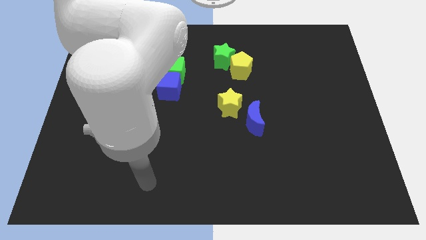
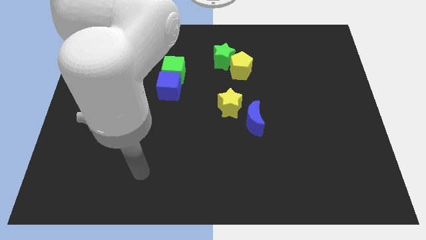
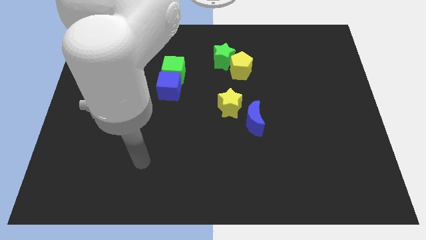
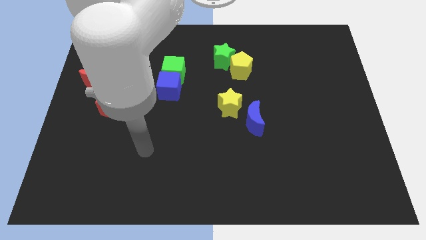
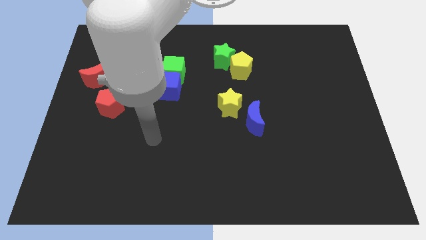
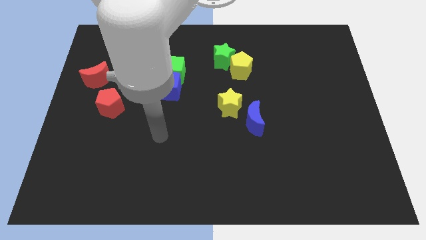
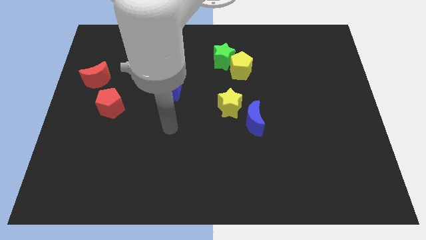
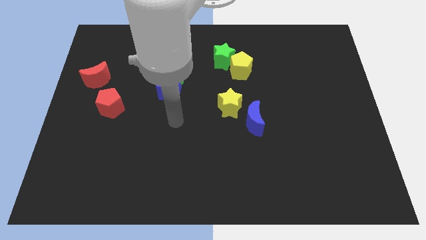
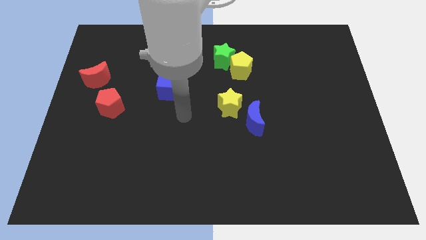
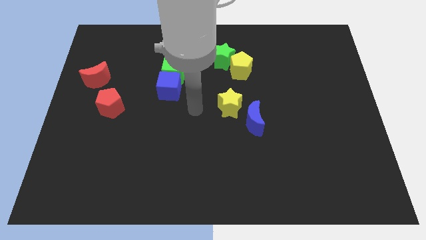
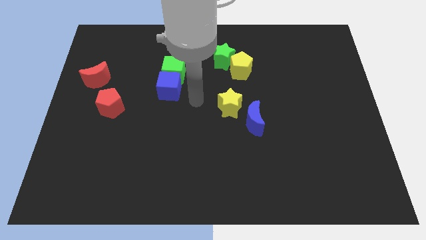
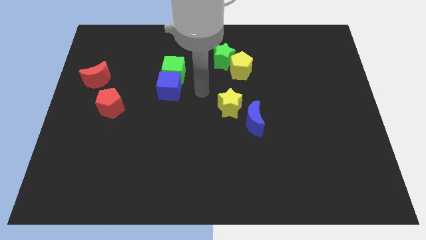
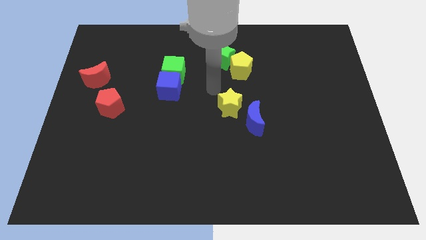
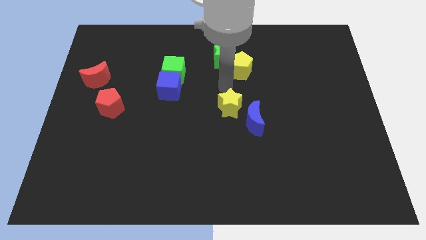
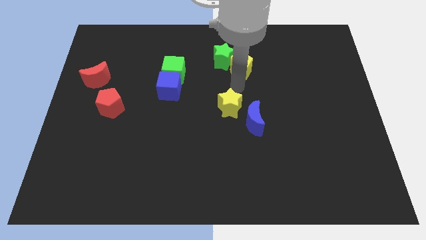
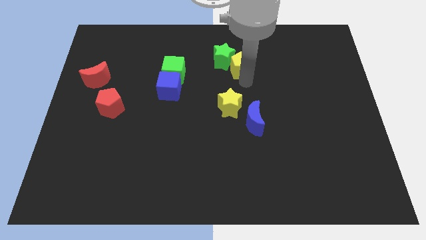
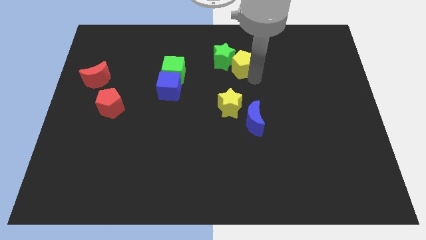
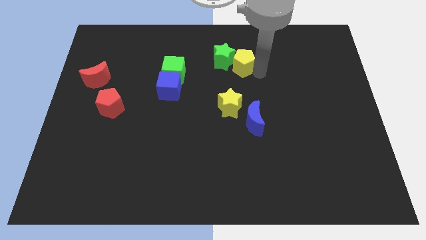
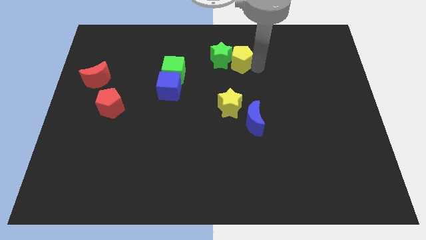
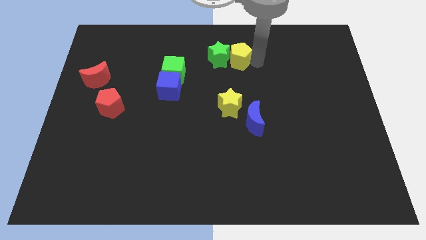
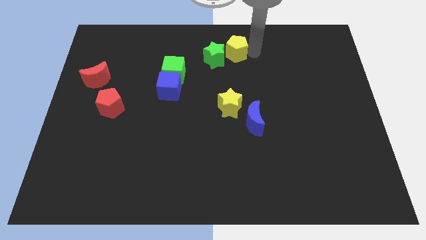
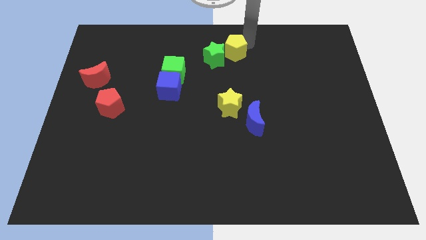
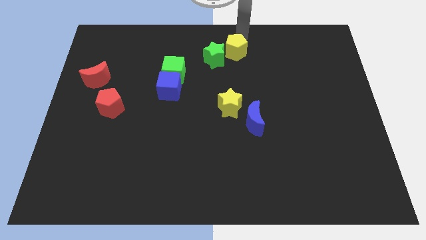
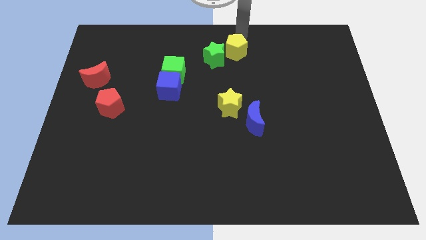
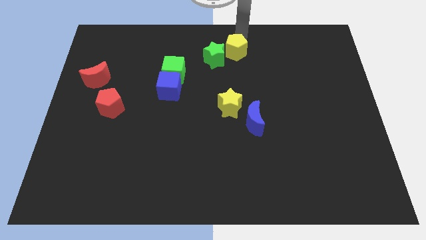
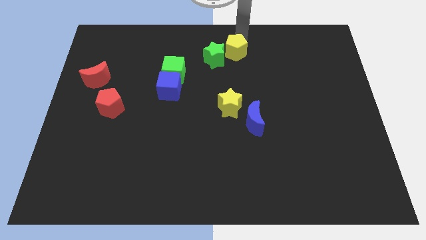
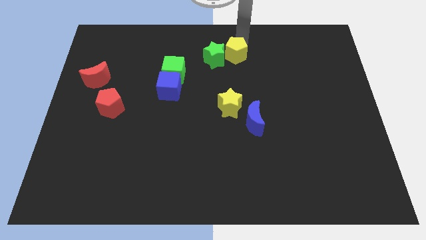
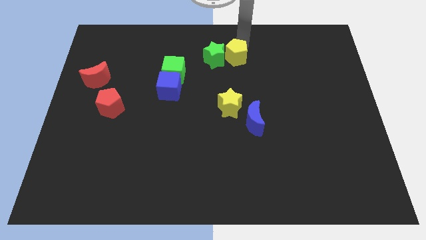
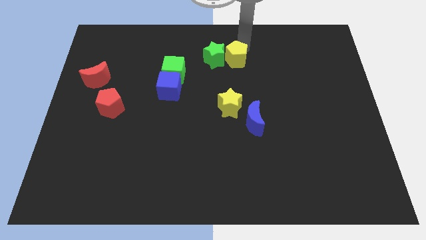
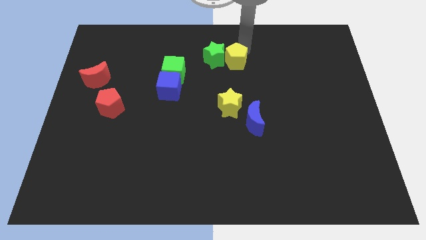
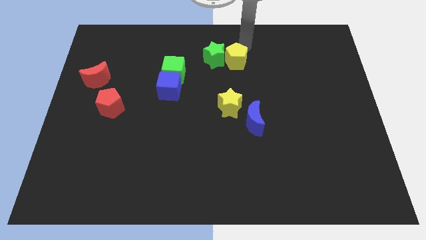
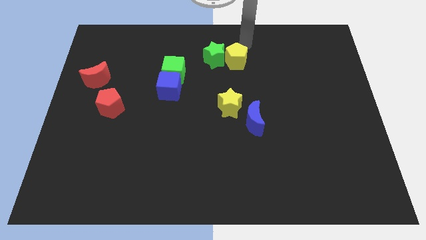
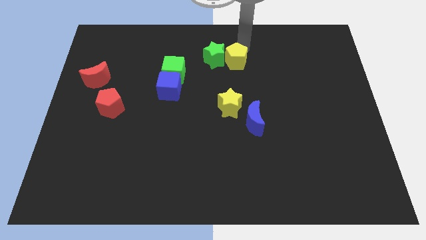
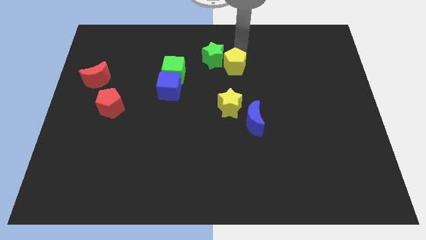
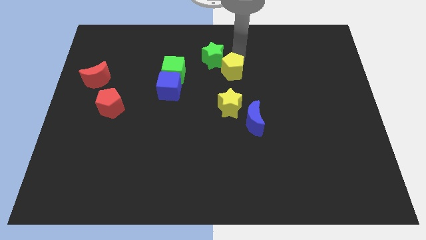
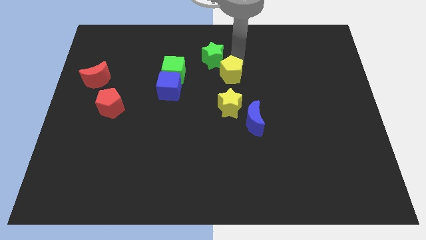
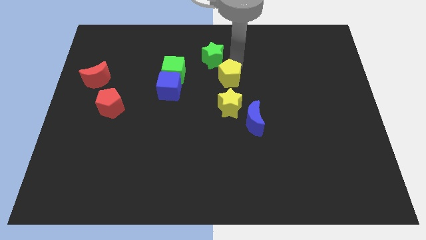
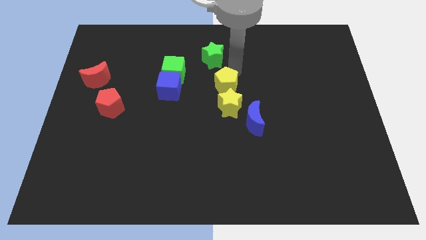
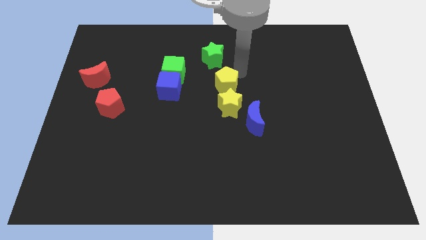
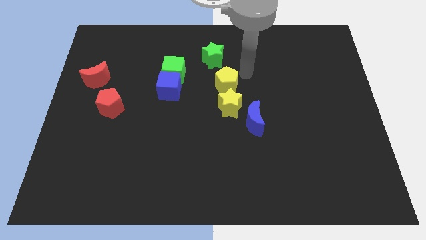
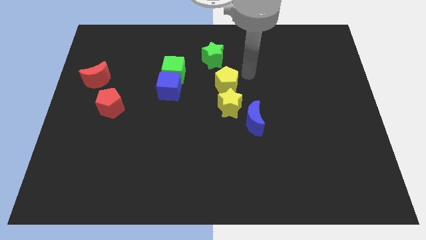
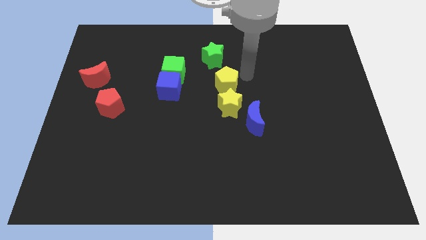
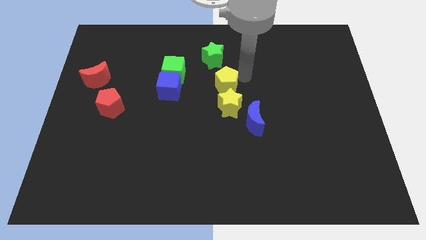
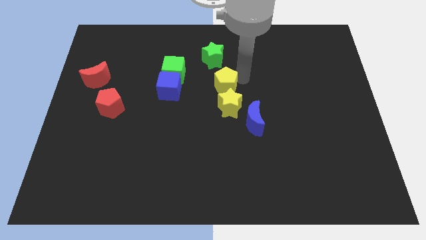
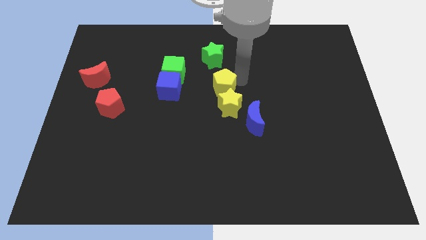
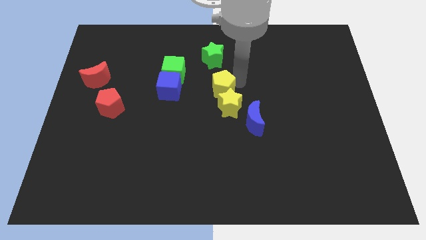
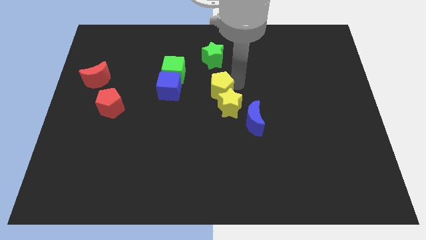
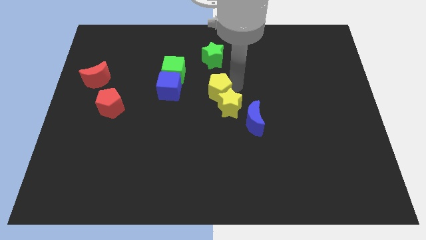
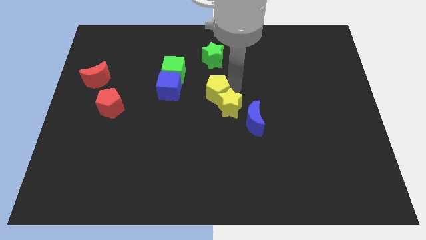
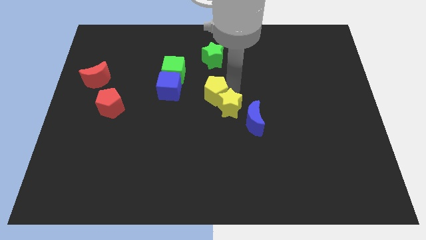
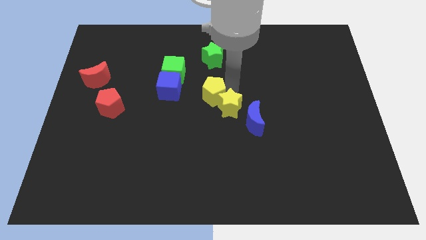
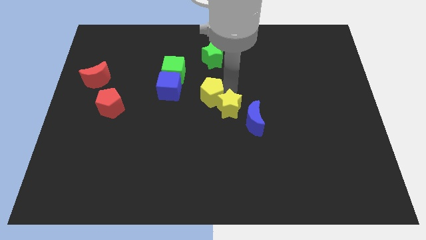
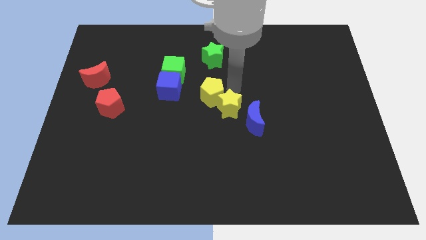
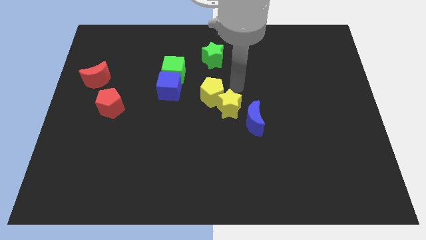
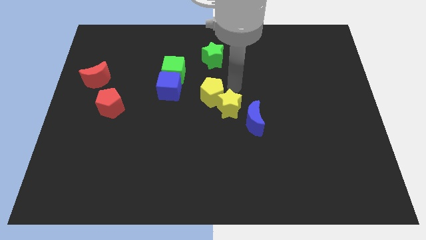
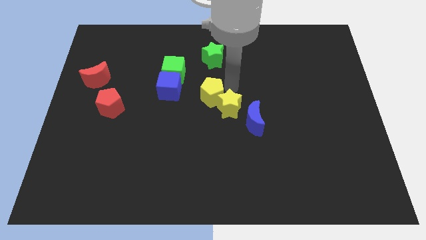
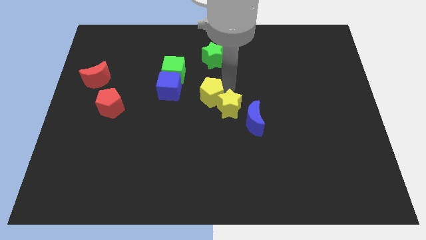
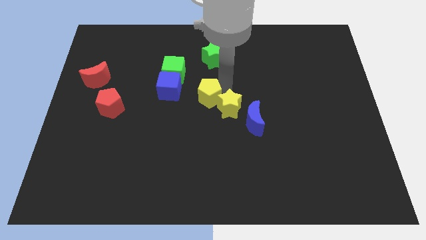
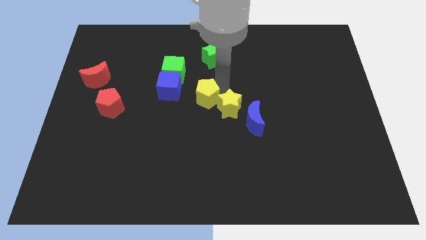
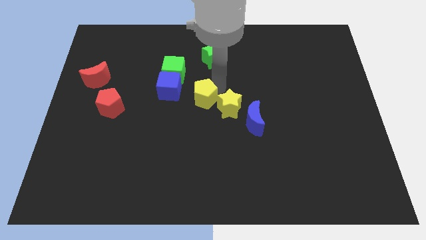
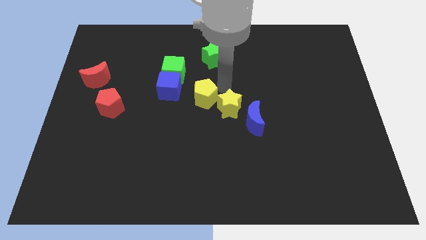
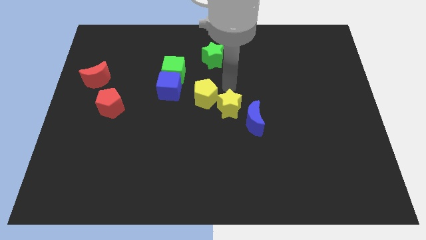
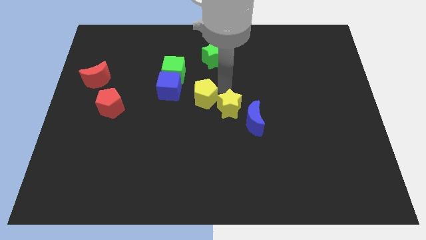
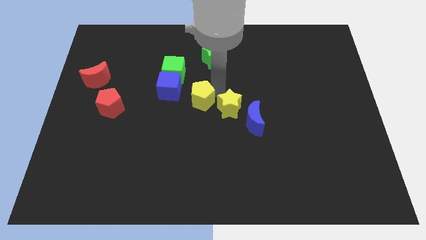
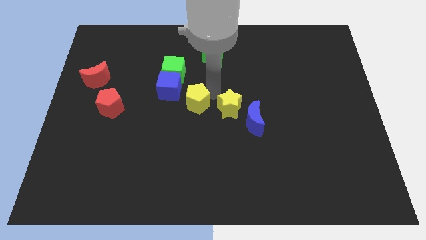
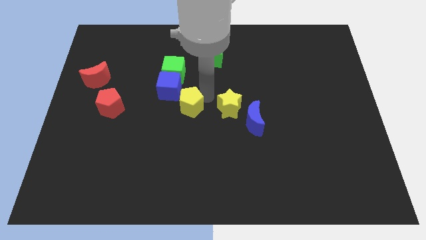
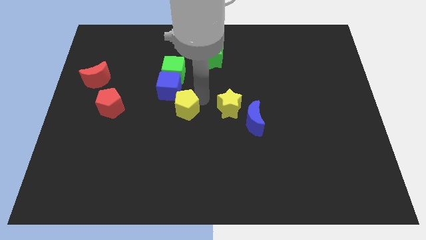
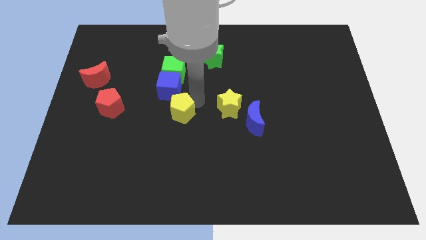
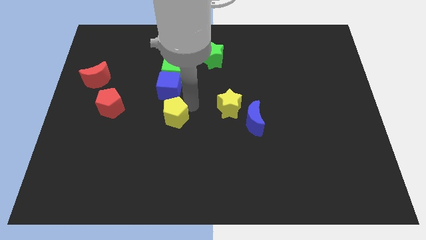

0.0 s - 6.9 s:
move the yellow pentagon diagonally down and to the left

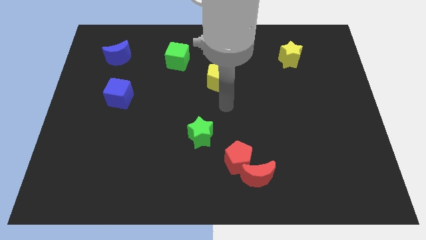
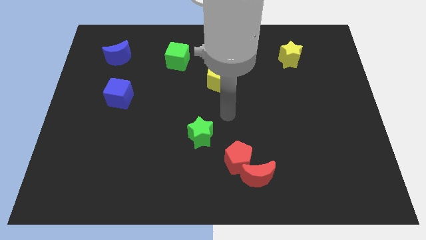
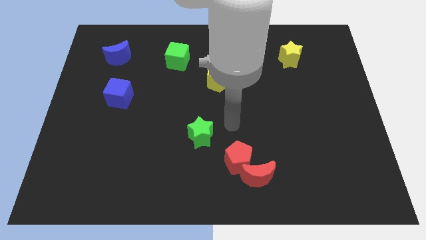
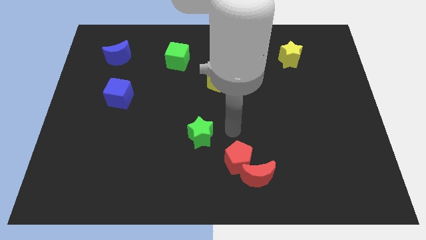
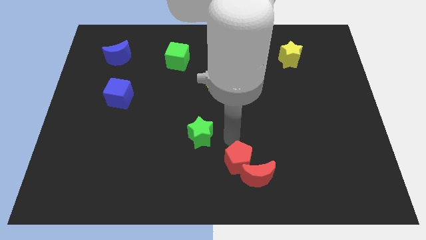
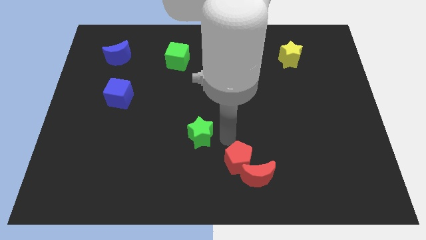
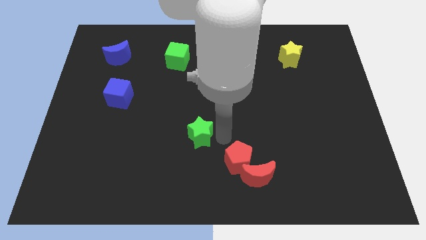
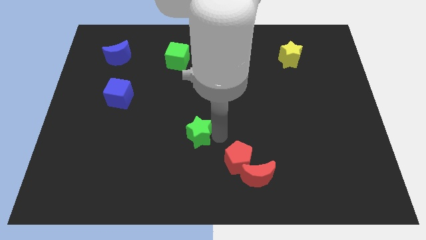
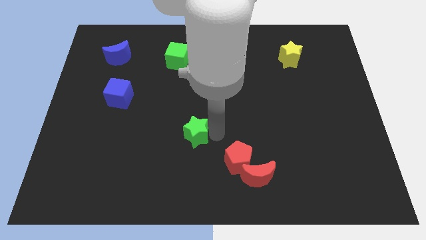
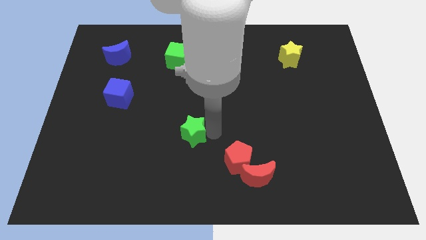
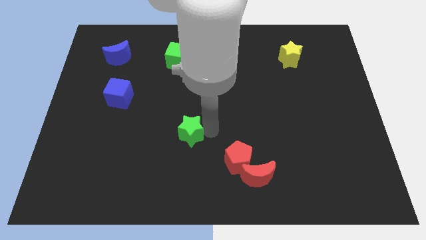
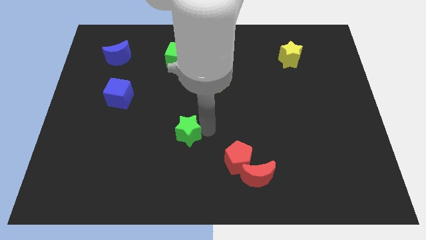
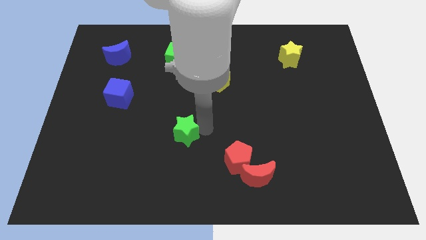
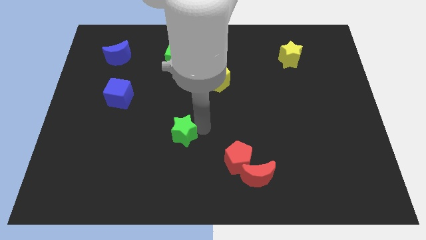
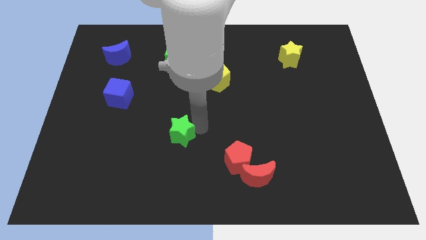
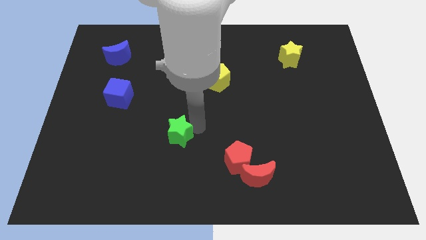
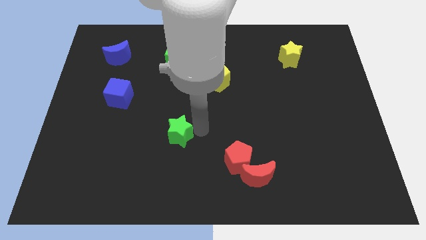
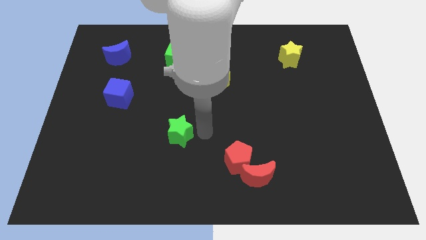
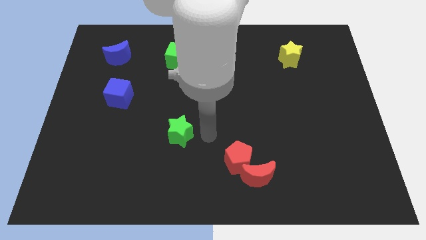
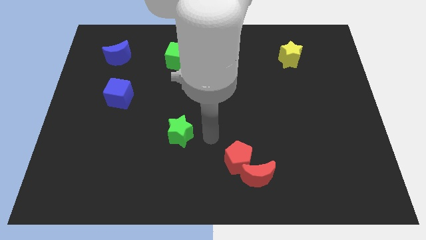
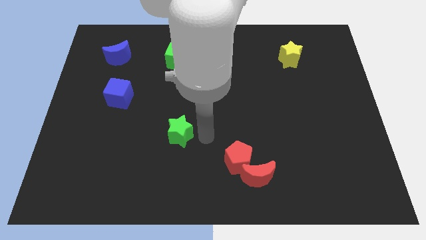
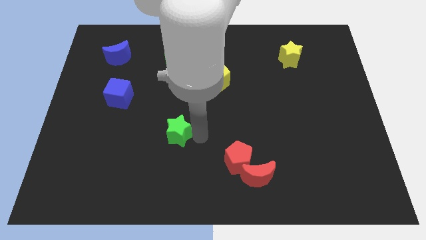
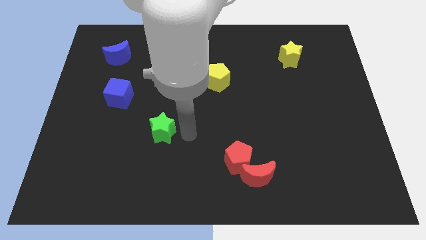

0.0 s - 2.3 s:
move the green star left a little bit
